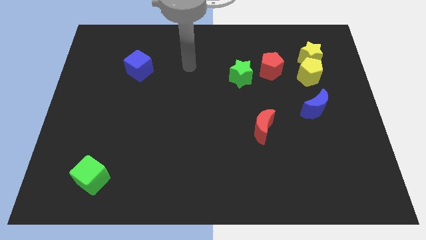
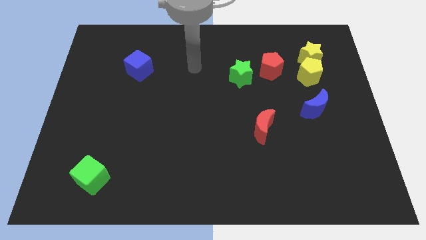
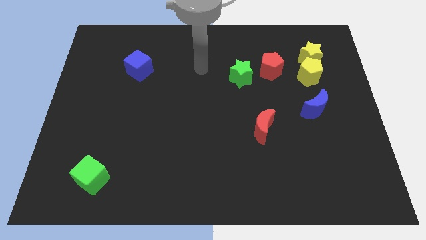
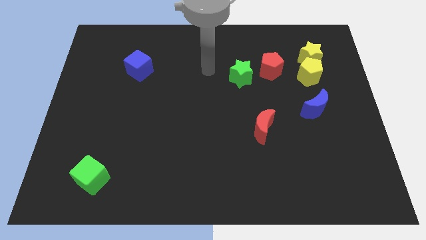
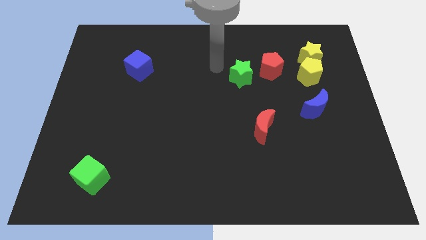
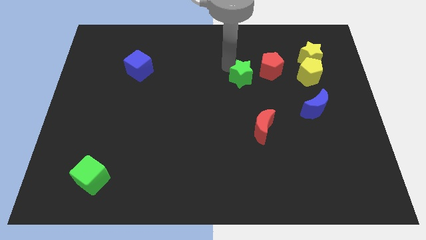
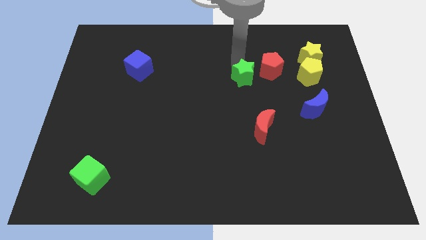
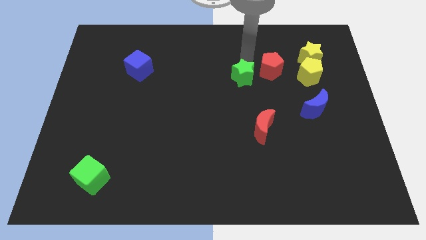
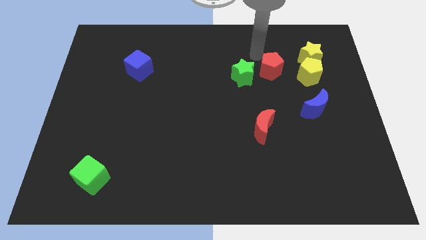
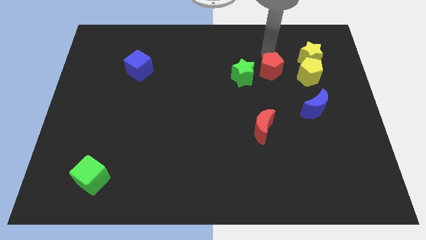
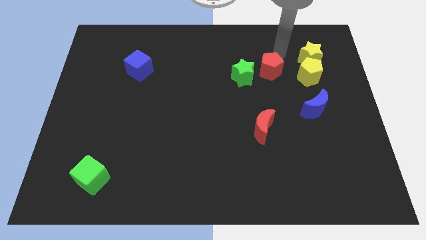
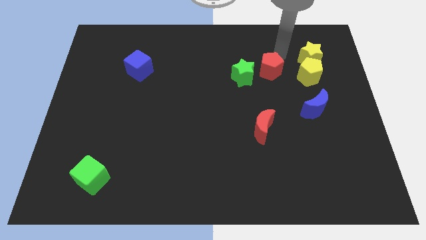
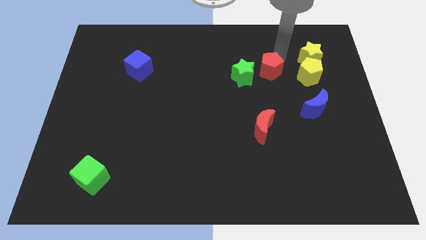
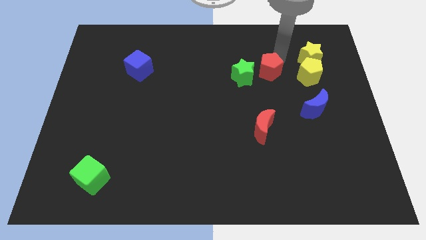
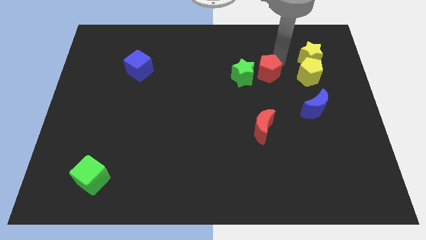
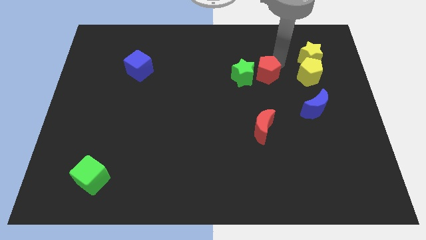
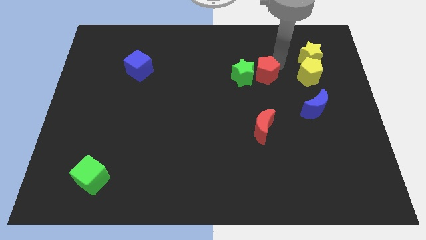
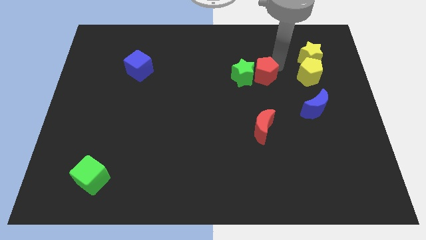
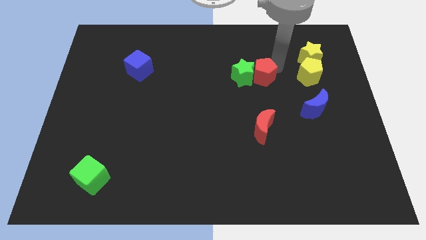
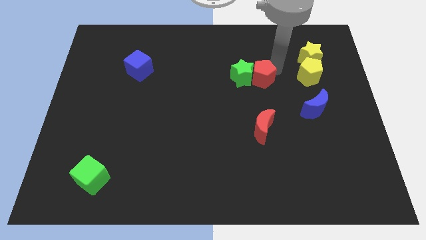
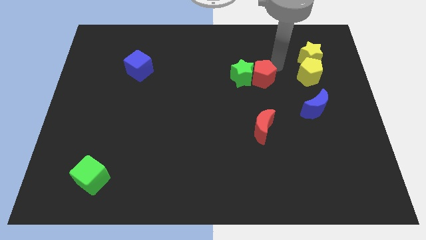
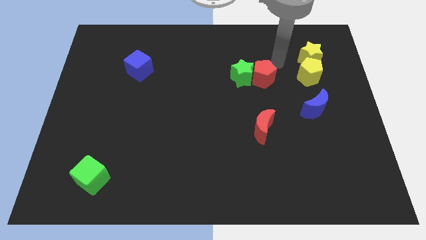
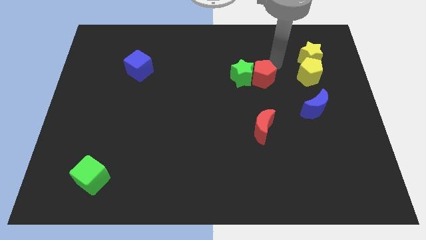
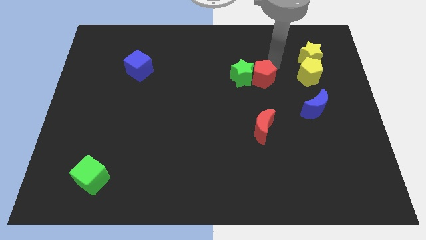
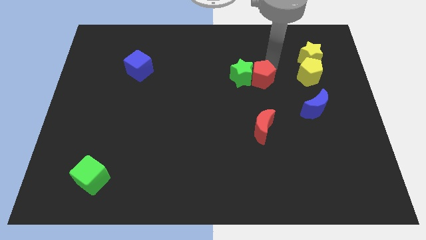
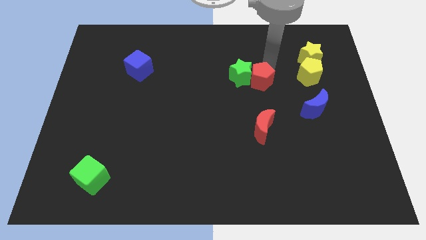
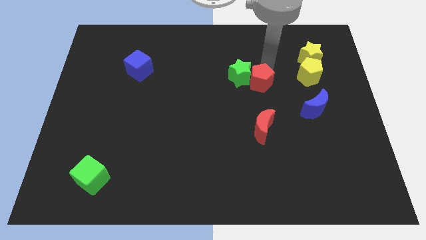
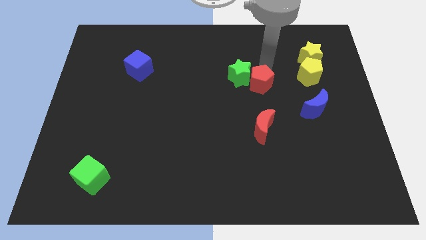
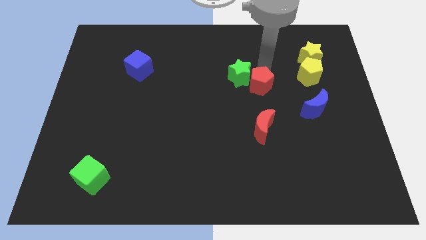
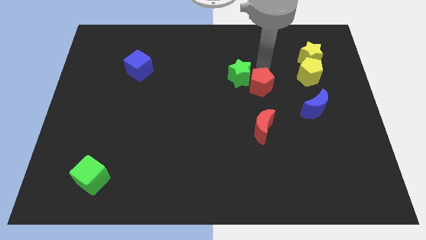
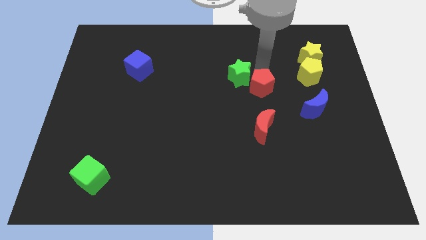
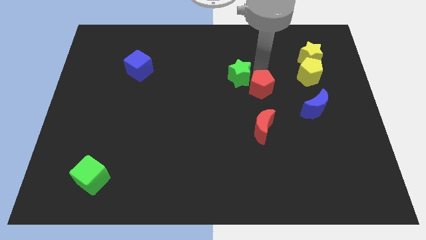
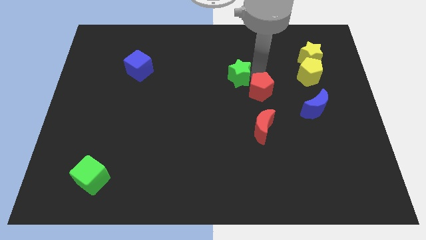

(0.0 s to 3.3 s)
slightly move the red pentagon diagonally downwards and left

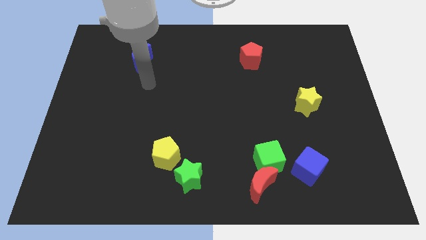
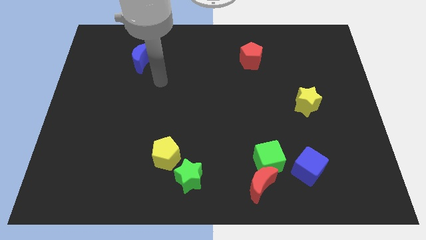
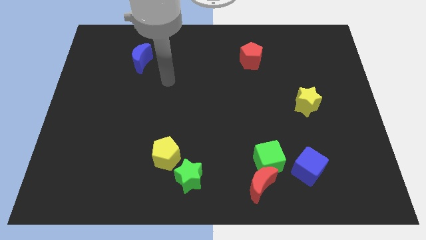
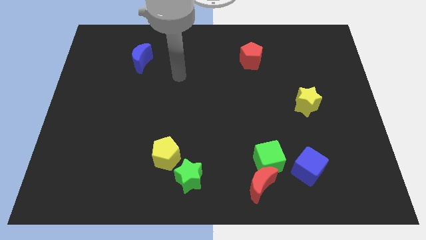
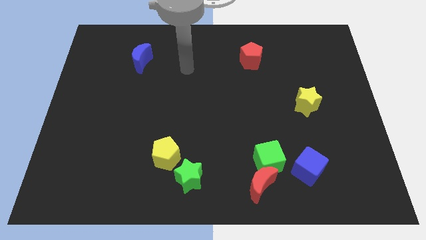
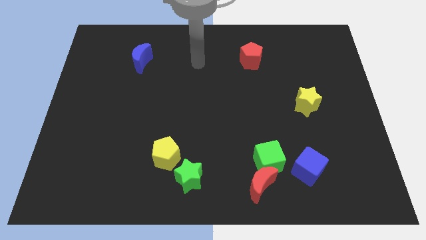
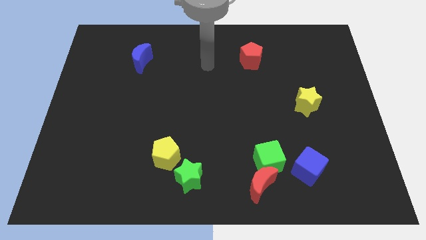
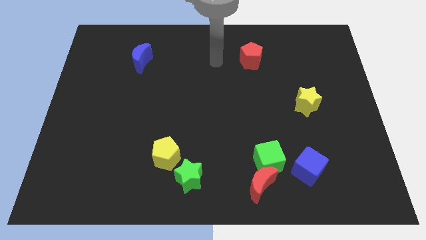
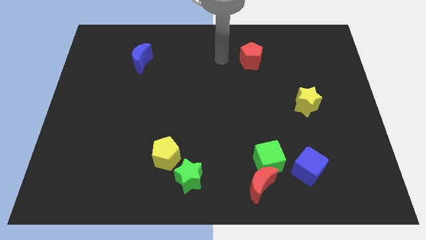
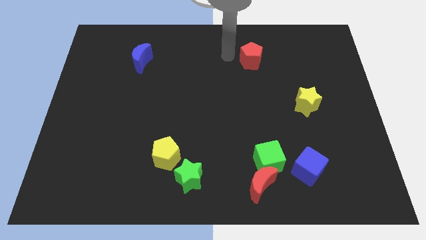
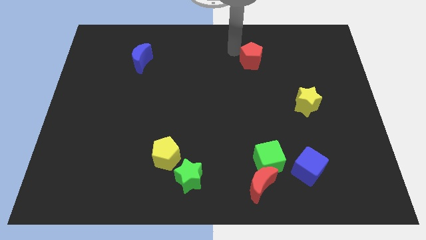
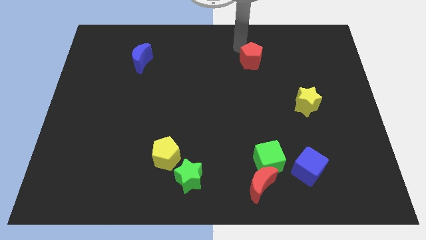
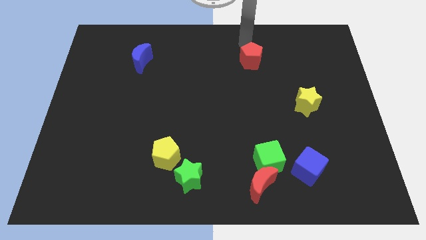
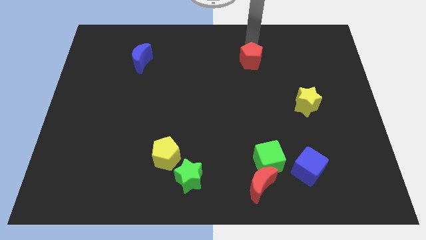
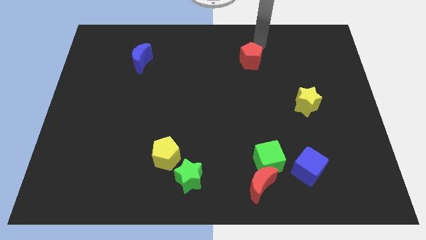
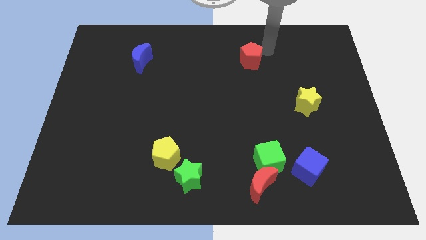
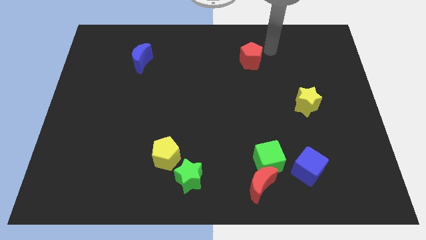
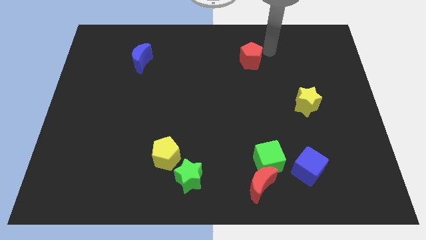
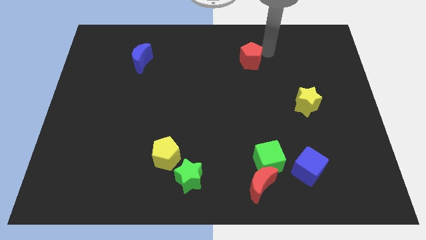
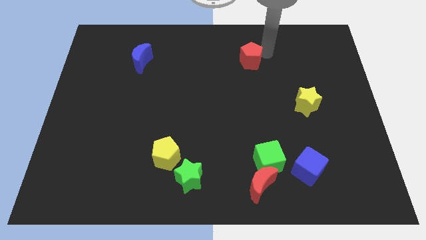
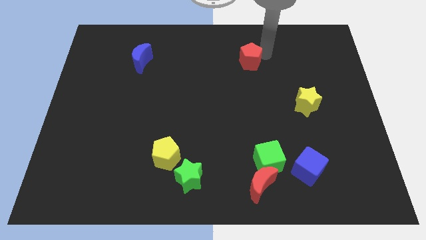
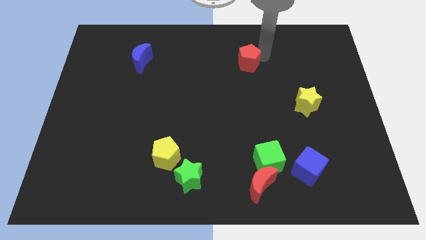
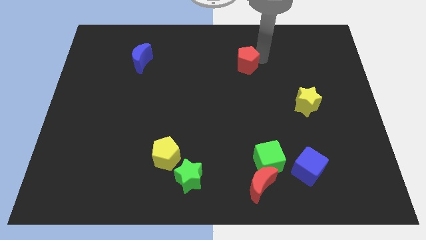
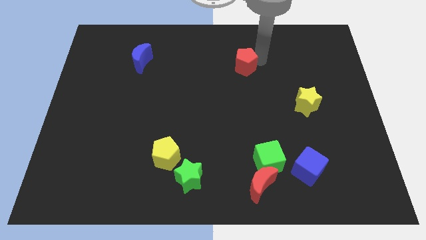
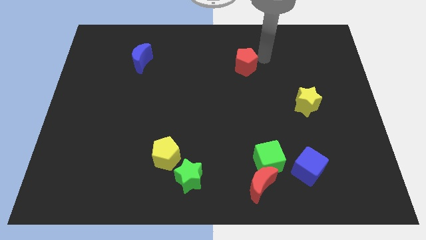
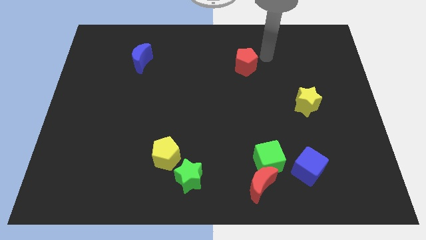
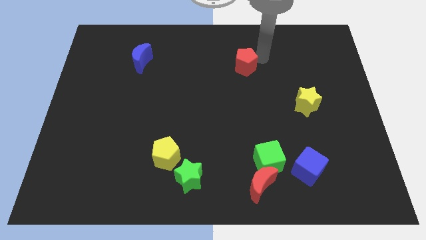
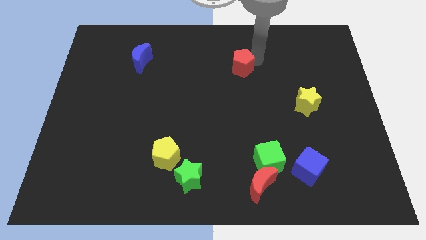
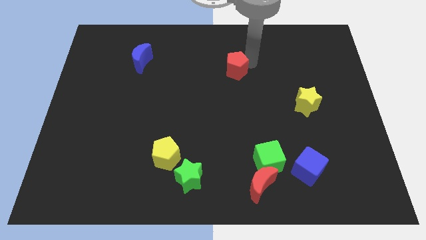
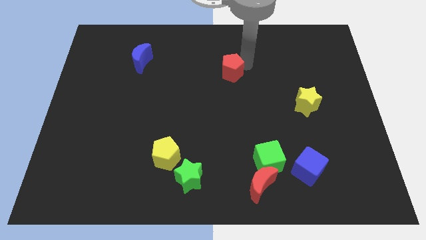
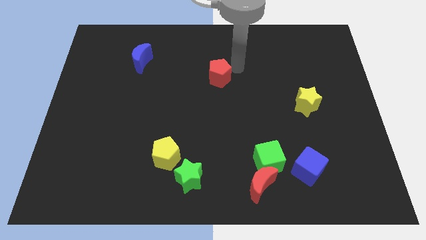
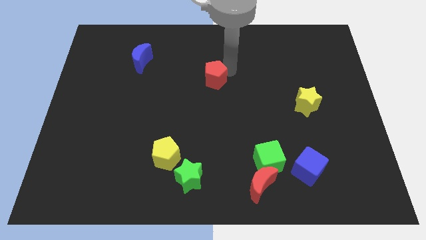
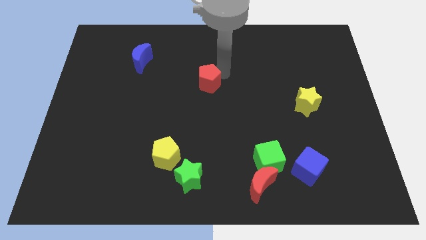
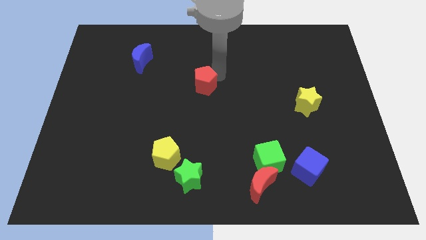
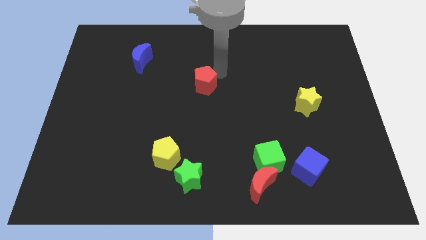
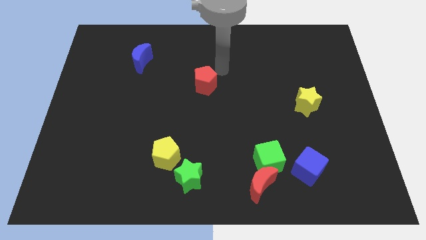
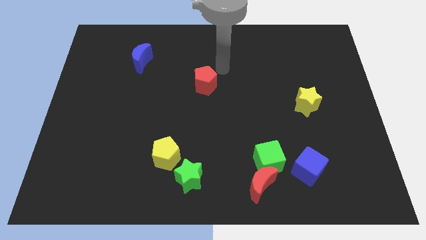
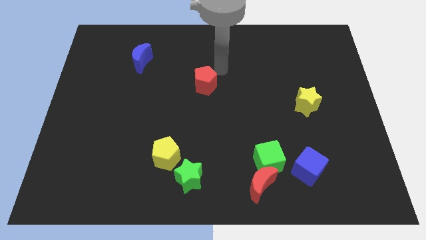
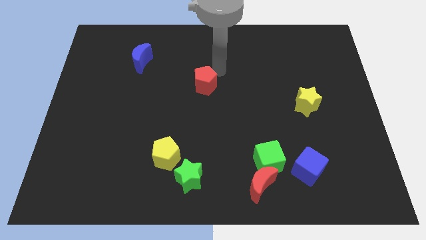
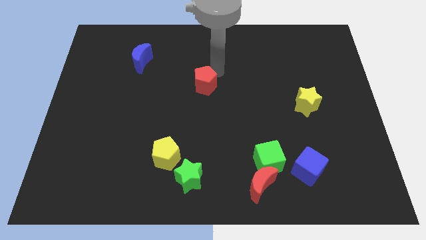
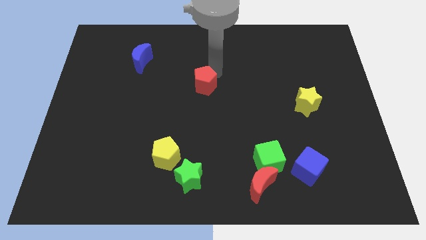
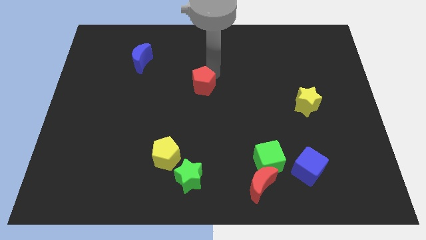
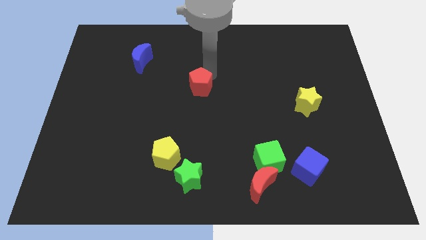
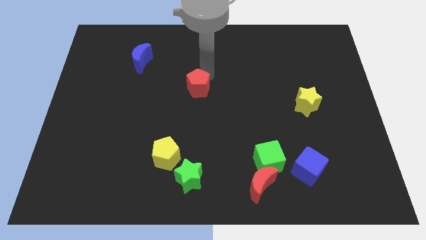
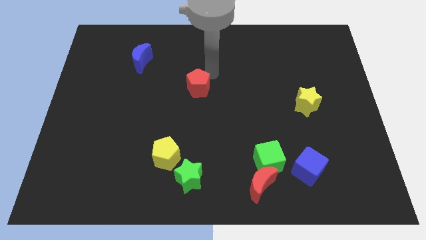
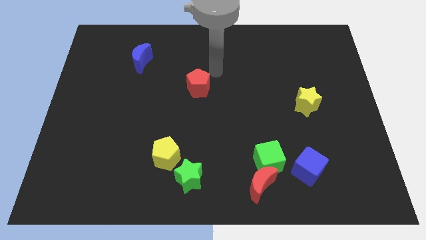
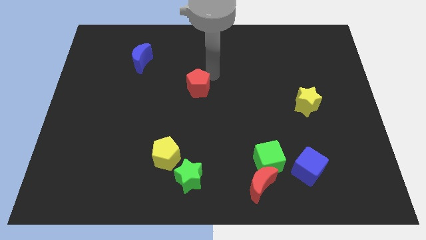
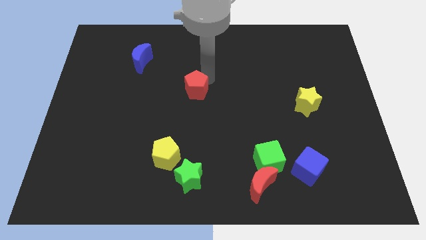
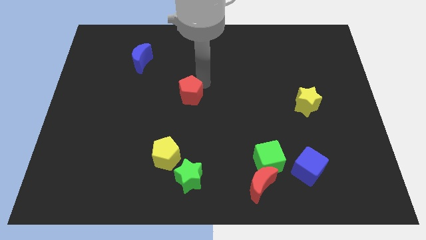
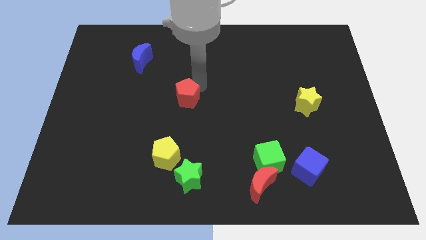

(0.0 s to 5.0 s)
slide the red pentagon down and left
